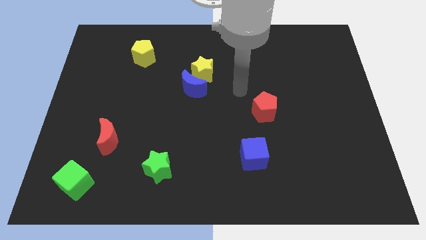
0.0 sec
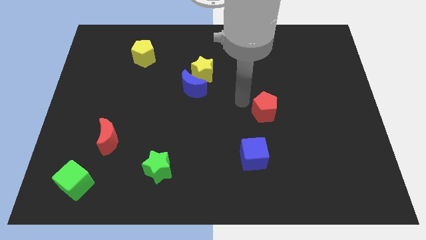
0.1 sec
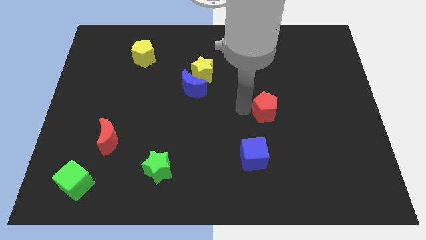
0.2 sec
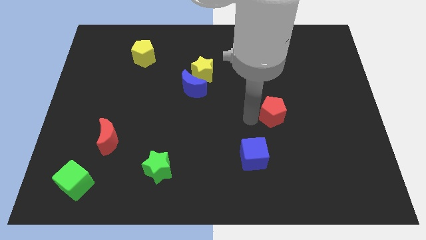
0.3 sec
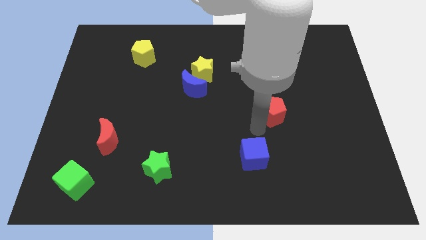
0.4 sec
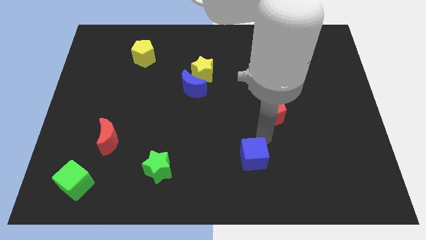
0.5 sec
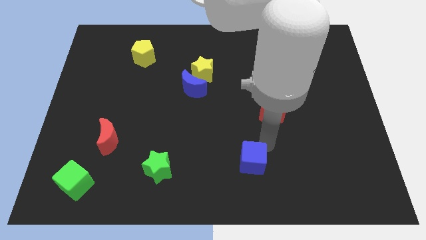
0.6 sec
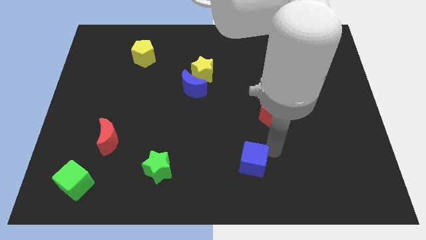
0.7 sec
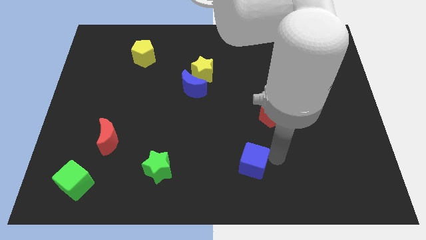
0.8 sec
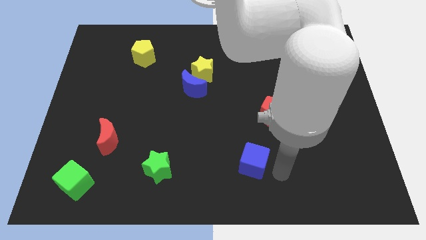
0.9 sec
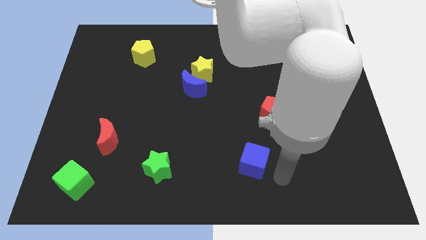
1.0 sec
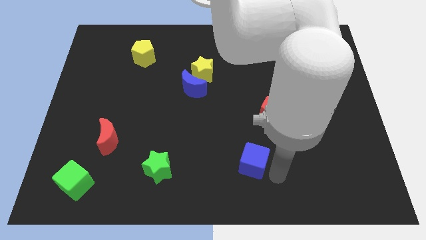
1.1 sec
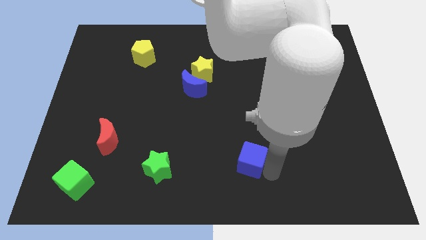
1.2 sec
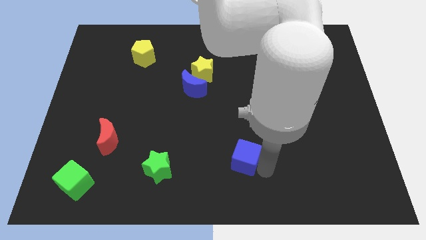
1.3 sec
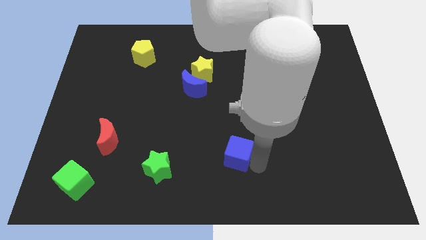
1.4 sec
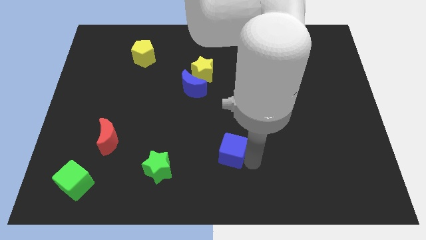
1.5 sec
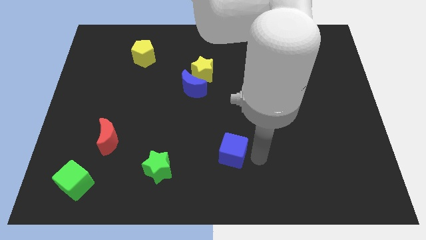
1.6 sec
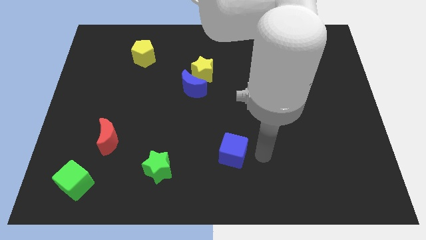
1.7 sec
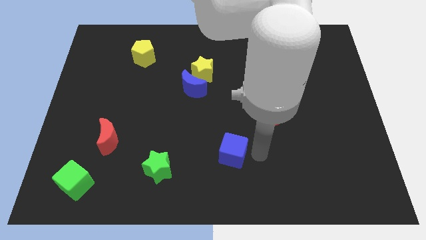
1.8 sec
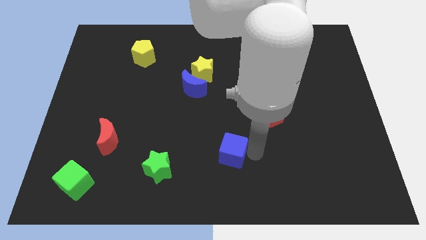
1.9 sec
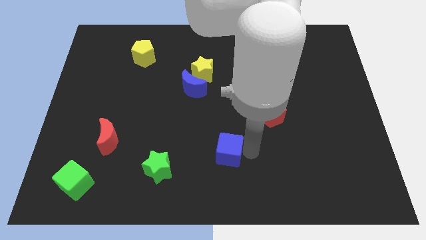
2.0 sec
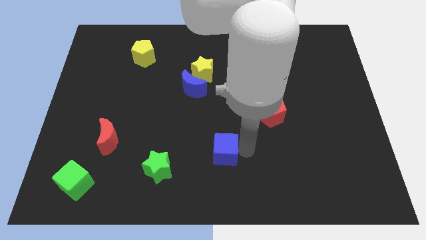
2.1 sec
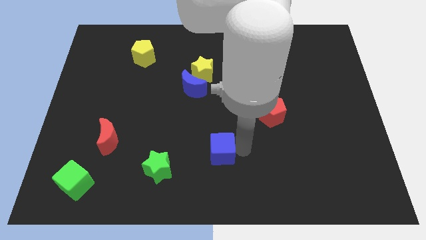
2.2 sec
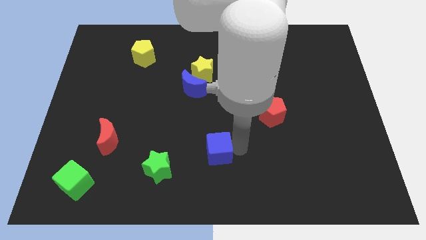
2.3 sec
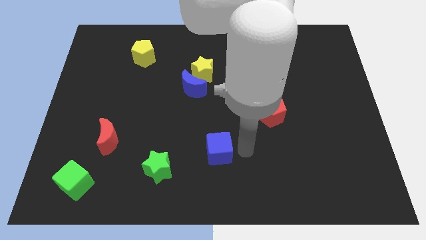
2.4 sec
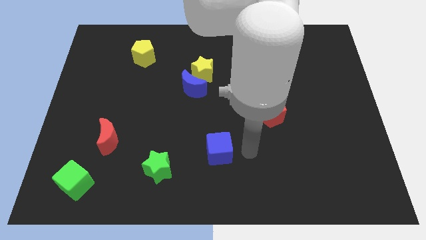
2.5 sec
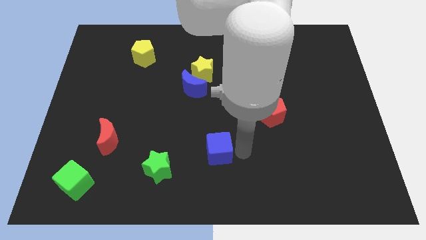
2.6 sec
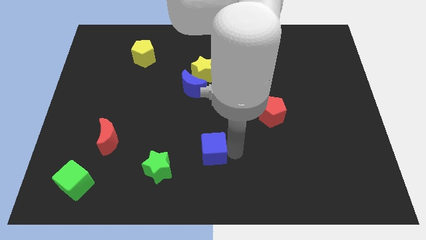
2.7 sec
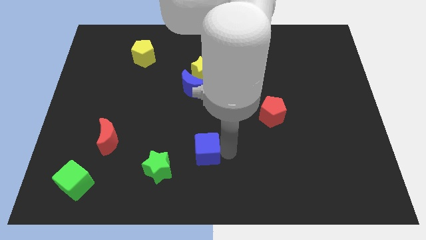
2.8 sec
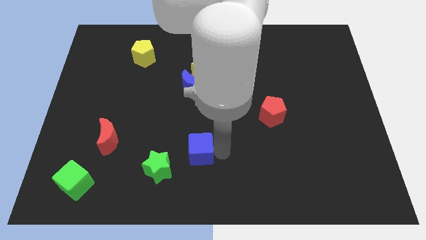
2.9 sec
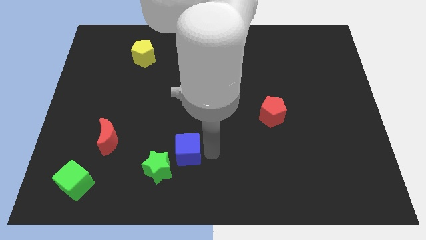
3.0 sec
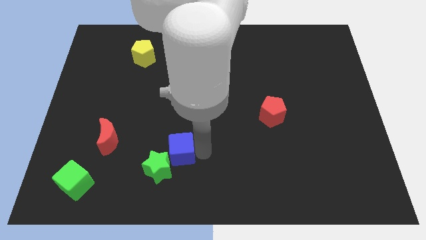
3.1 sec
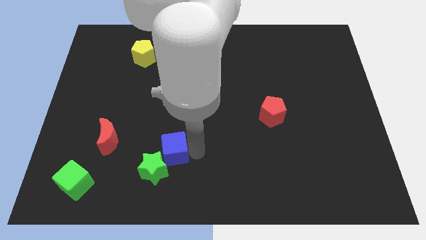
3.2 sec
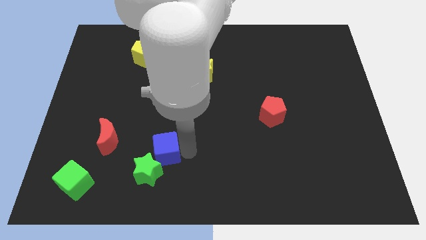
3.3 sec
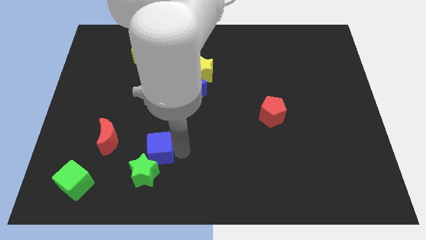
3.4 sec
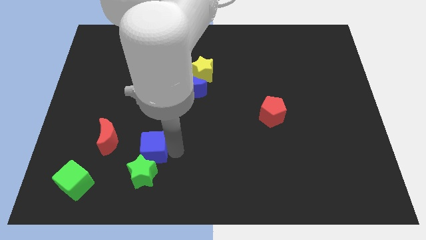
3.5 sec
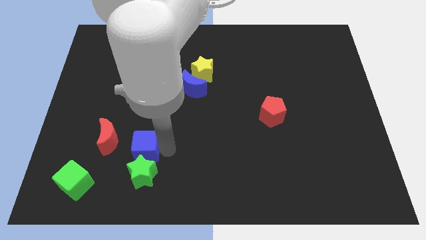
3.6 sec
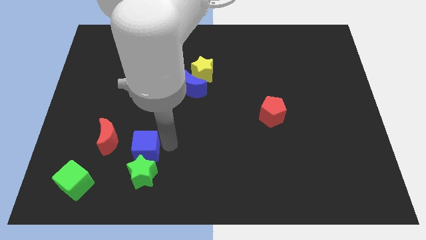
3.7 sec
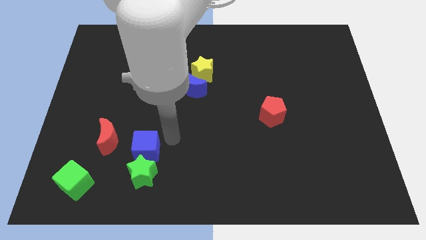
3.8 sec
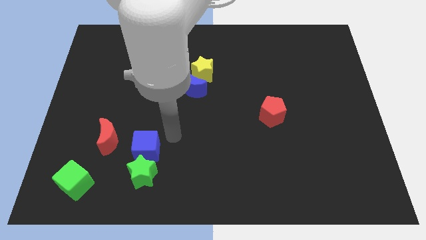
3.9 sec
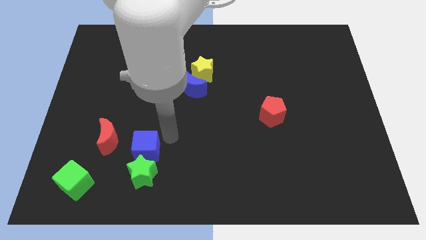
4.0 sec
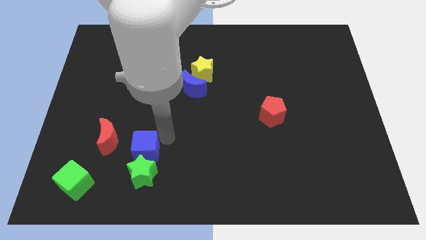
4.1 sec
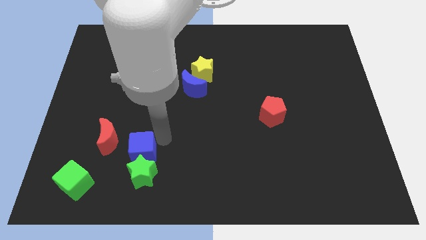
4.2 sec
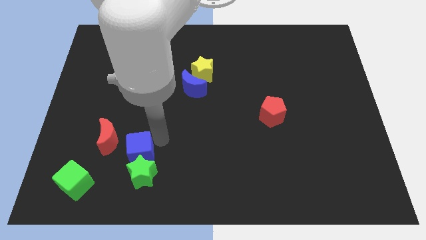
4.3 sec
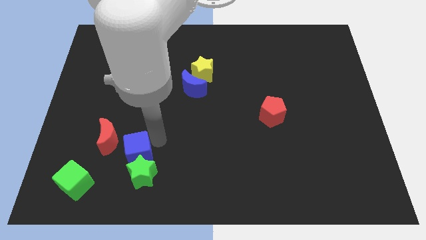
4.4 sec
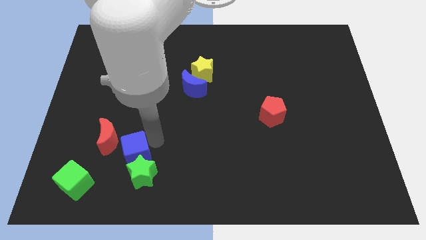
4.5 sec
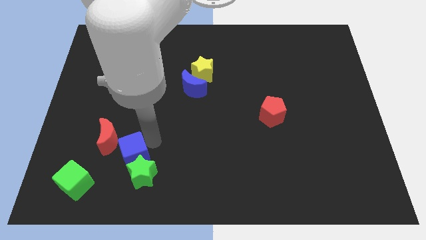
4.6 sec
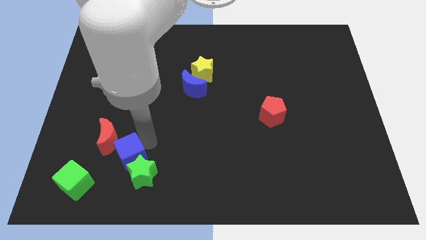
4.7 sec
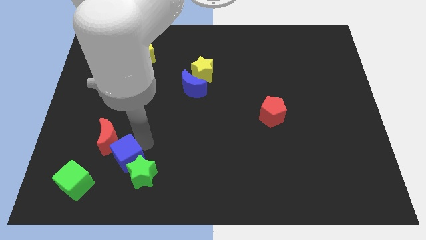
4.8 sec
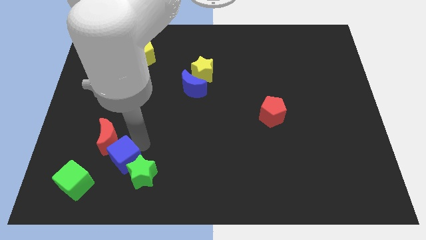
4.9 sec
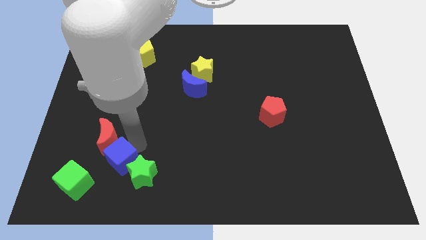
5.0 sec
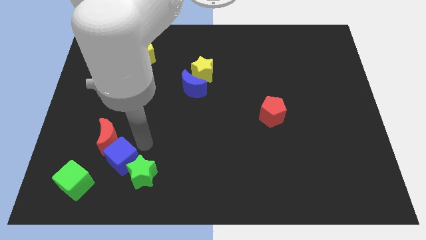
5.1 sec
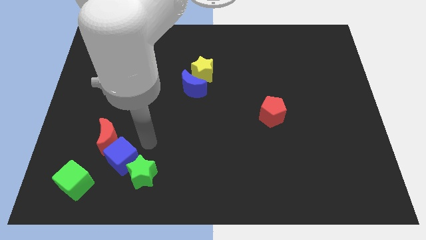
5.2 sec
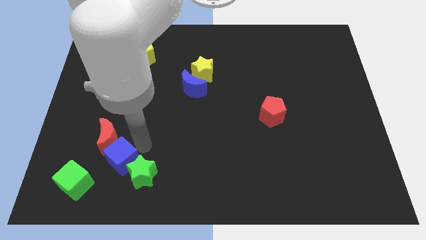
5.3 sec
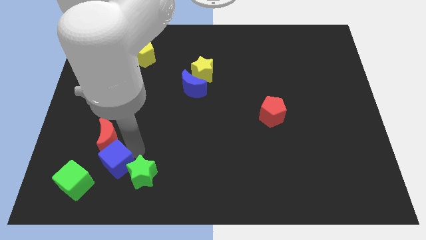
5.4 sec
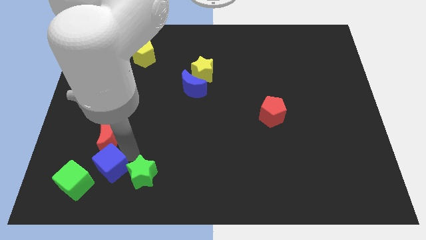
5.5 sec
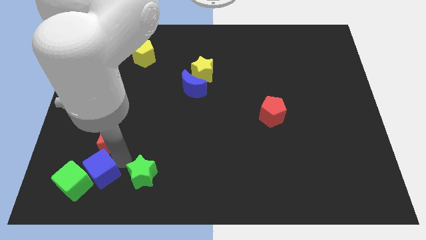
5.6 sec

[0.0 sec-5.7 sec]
move the blue cube close to the green cube
